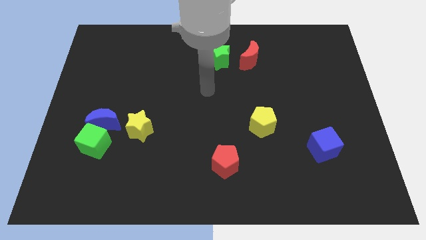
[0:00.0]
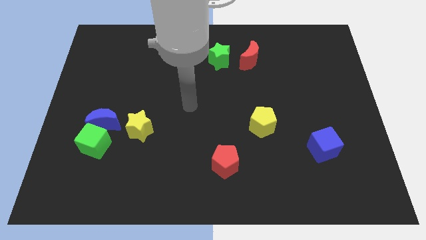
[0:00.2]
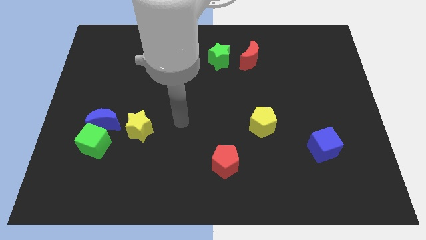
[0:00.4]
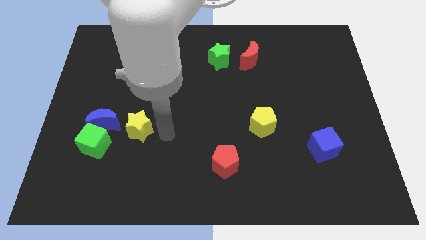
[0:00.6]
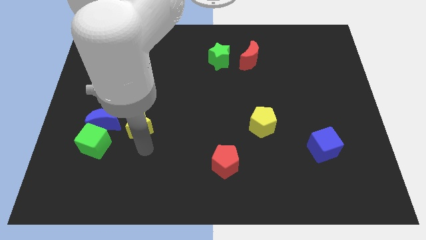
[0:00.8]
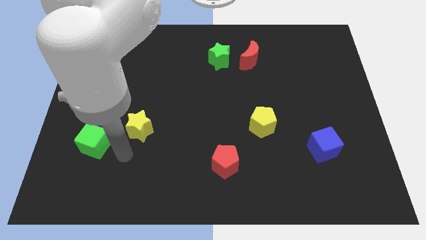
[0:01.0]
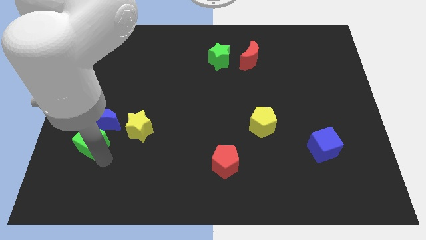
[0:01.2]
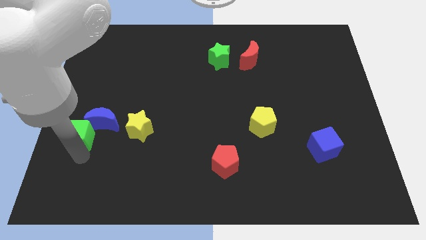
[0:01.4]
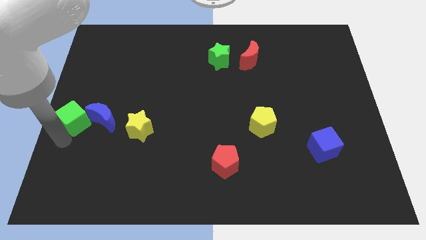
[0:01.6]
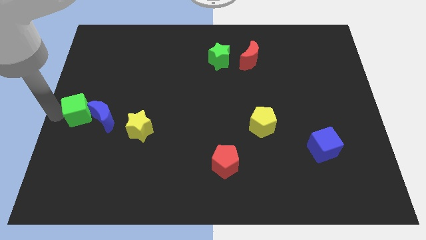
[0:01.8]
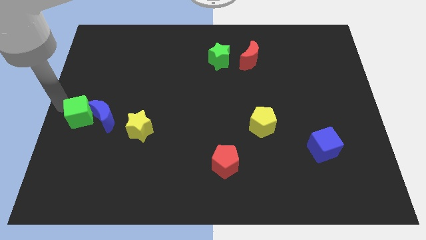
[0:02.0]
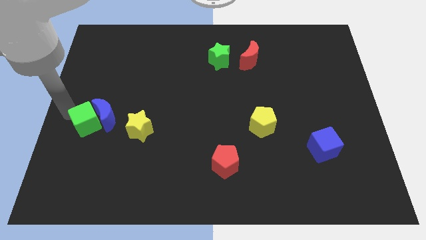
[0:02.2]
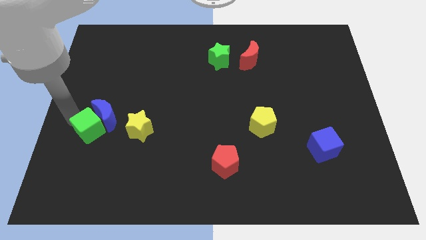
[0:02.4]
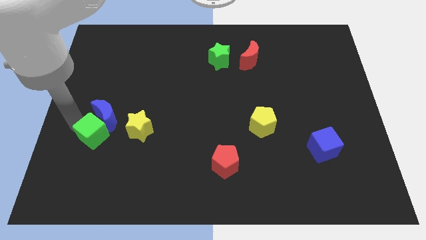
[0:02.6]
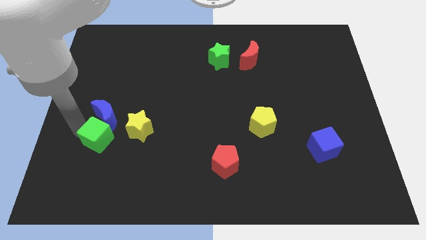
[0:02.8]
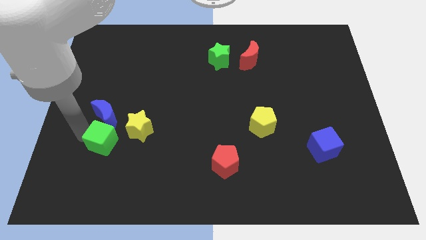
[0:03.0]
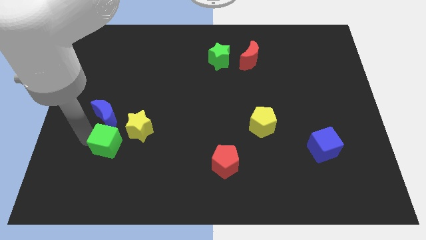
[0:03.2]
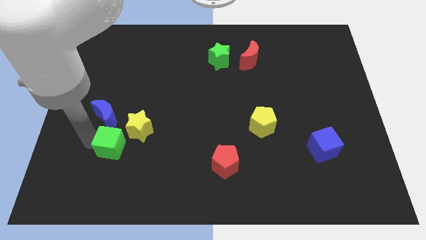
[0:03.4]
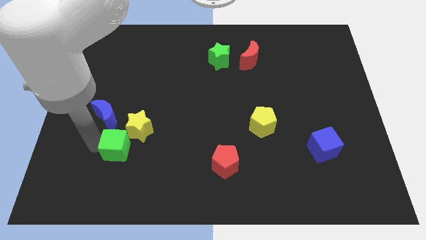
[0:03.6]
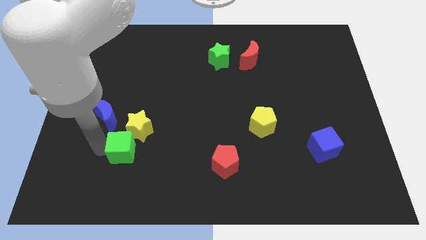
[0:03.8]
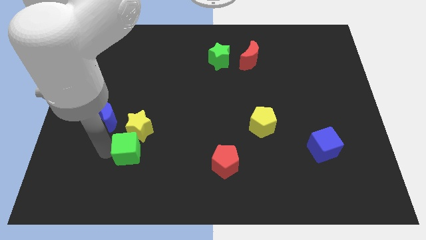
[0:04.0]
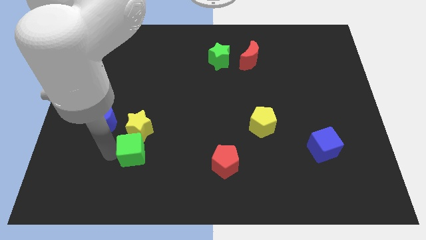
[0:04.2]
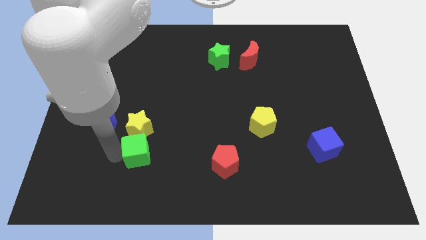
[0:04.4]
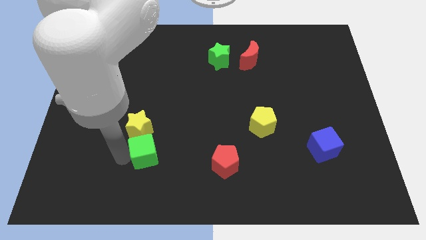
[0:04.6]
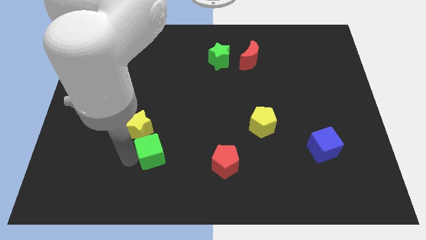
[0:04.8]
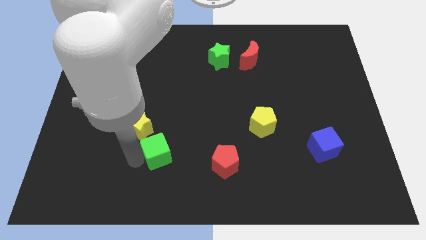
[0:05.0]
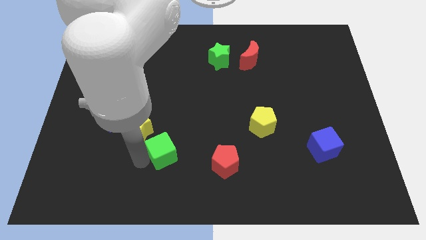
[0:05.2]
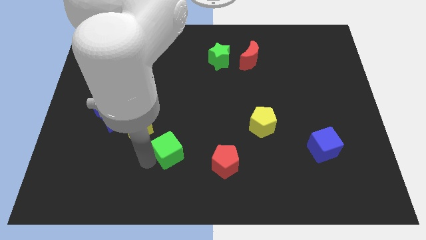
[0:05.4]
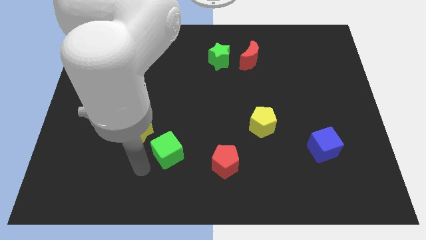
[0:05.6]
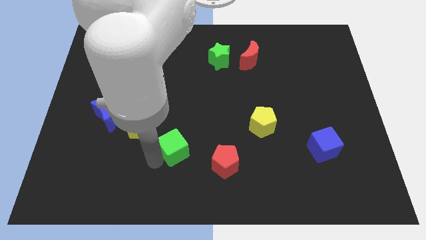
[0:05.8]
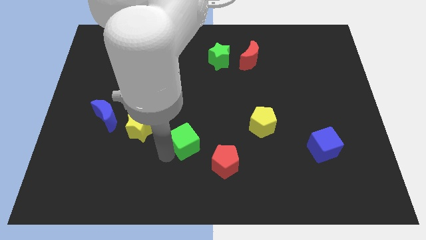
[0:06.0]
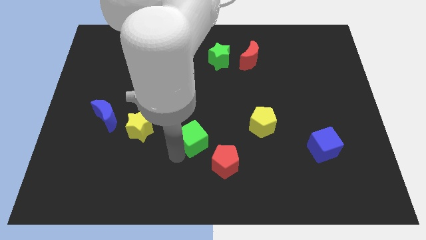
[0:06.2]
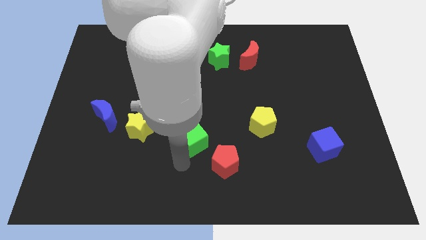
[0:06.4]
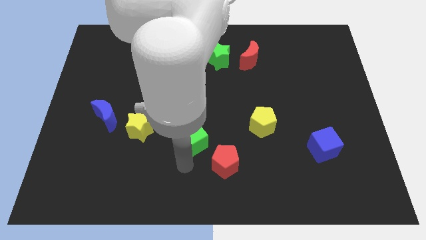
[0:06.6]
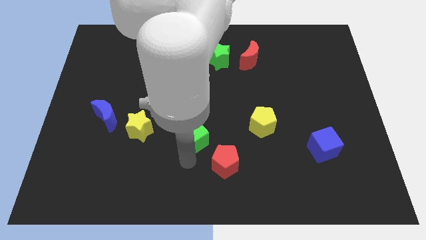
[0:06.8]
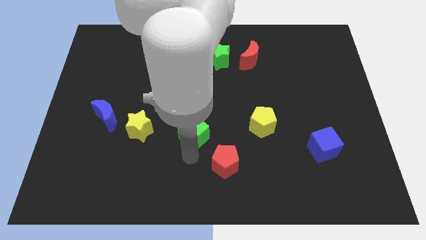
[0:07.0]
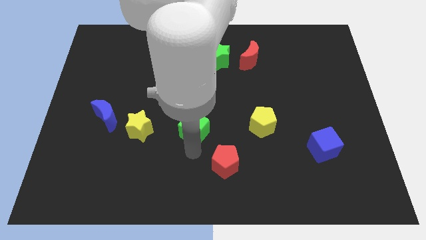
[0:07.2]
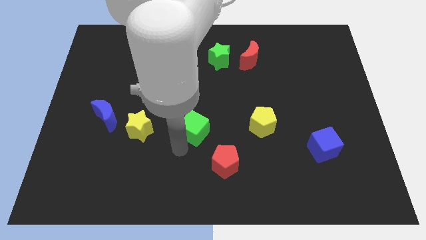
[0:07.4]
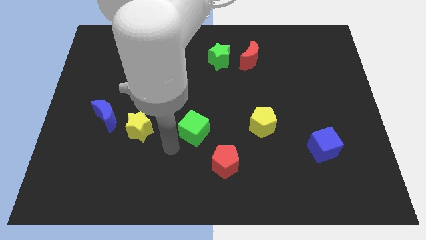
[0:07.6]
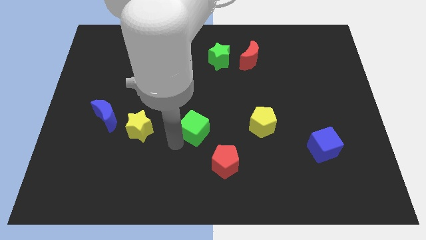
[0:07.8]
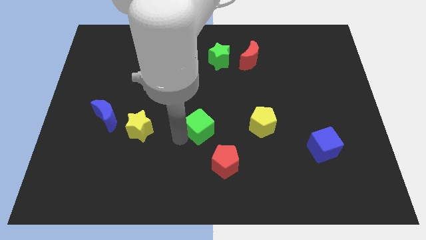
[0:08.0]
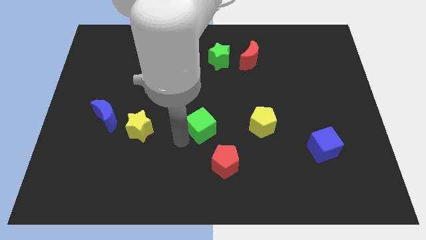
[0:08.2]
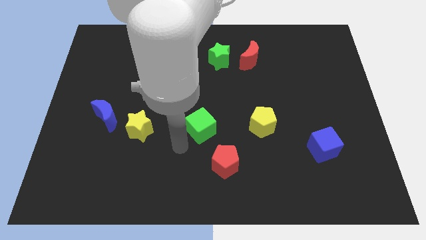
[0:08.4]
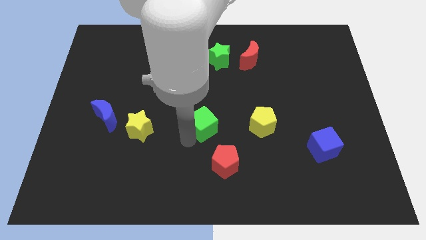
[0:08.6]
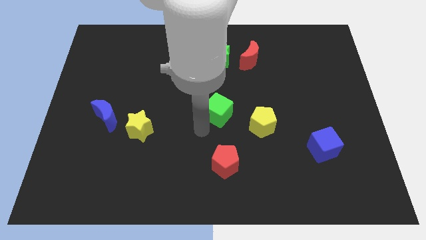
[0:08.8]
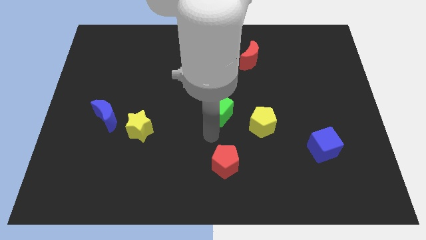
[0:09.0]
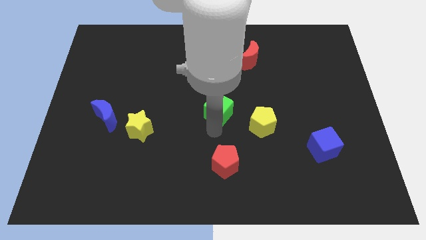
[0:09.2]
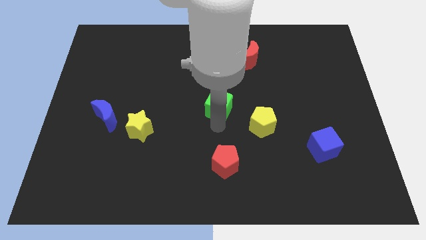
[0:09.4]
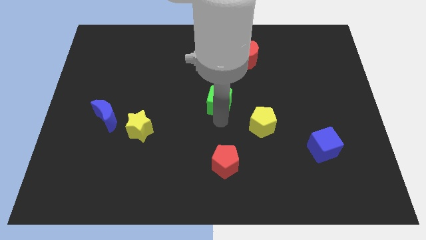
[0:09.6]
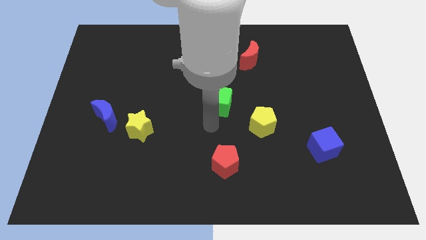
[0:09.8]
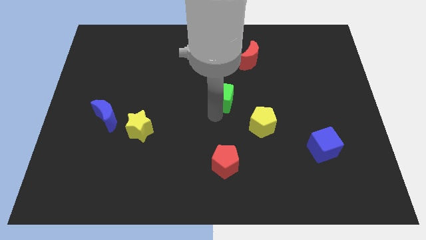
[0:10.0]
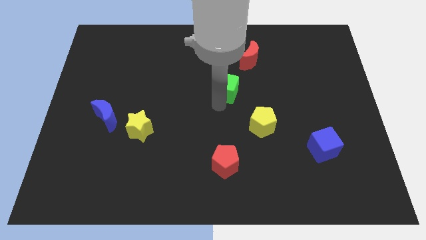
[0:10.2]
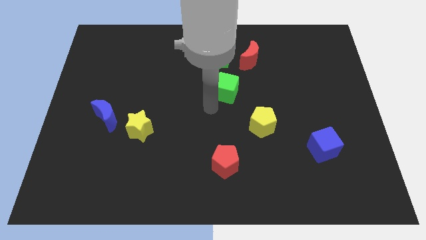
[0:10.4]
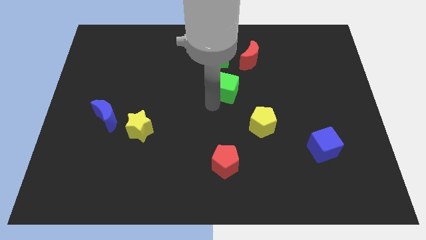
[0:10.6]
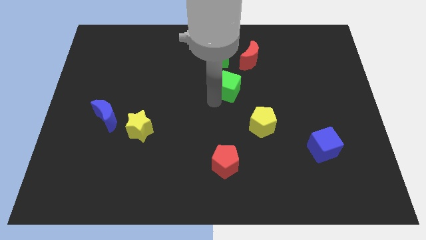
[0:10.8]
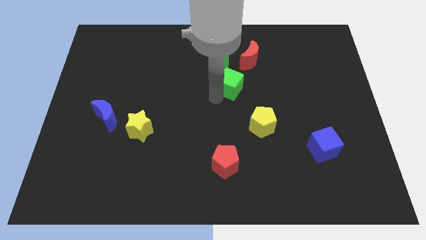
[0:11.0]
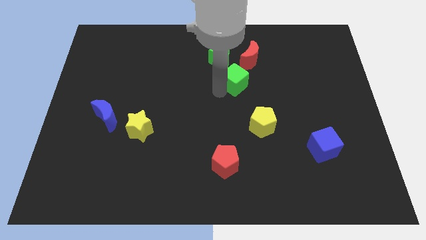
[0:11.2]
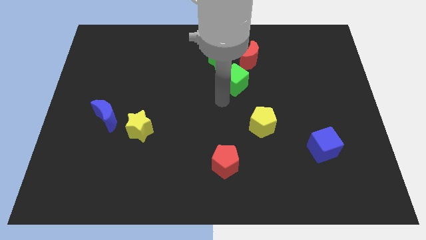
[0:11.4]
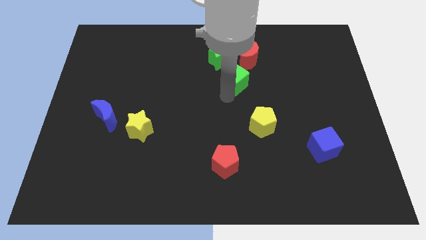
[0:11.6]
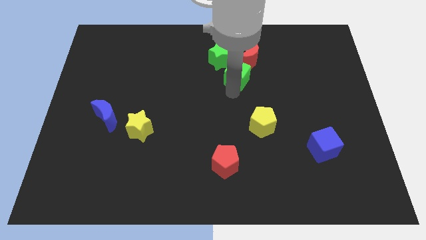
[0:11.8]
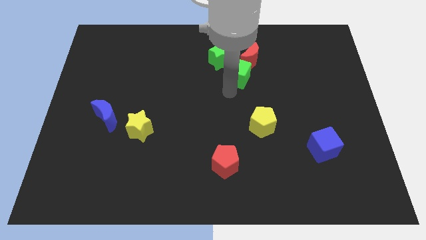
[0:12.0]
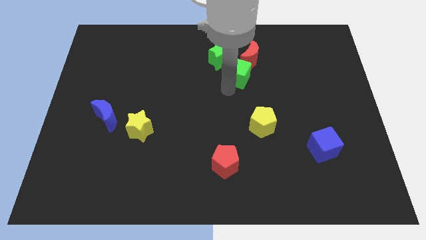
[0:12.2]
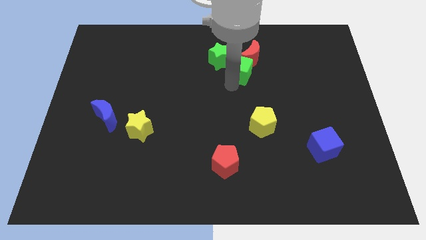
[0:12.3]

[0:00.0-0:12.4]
push the green cube close to the red moon

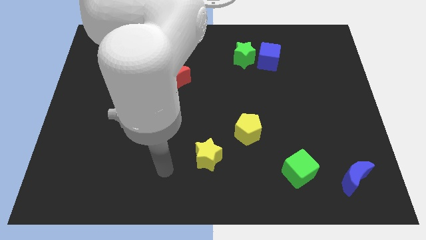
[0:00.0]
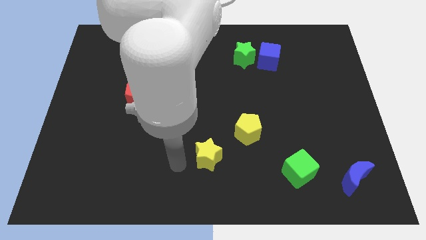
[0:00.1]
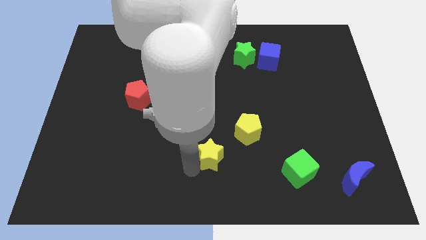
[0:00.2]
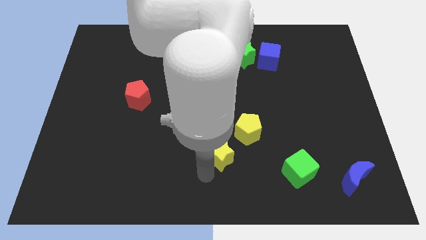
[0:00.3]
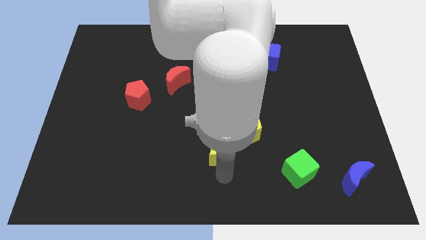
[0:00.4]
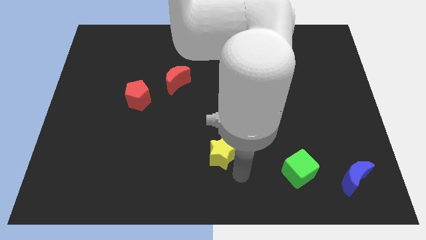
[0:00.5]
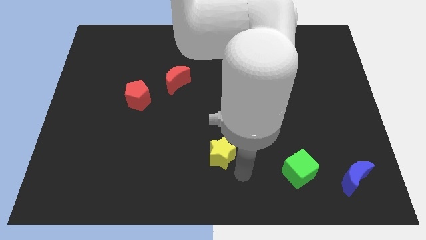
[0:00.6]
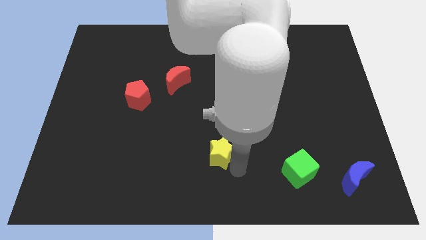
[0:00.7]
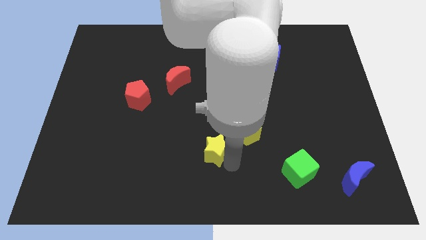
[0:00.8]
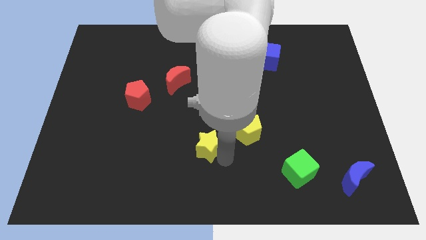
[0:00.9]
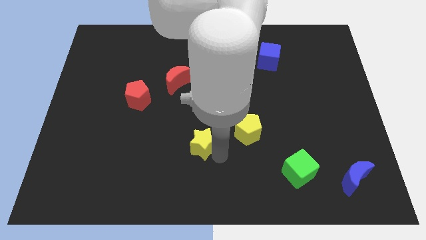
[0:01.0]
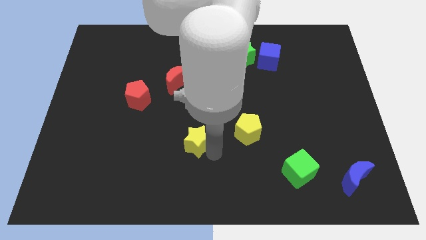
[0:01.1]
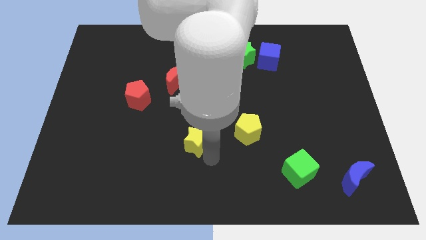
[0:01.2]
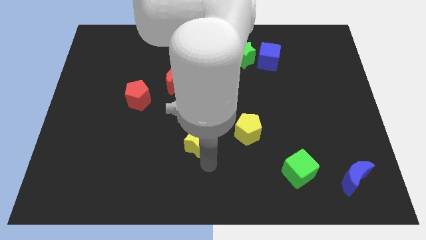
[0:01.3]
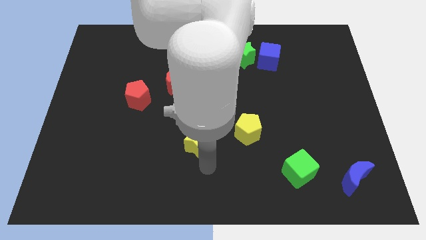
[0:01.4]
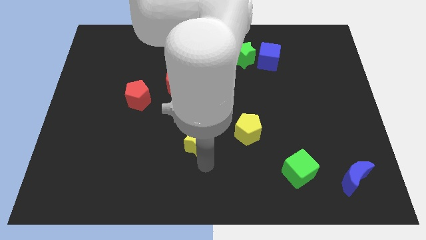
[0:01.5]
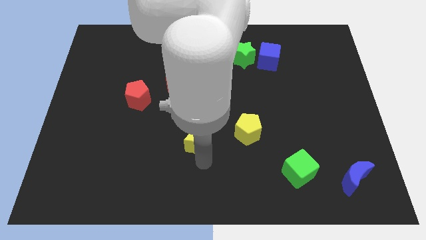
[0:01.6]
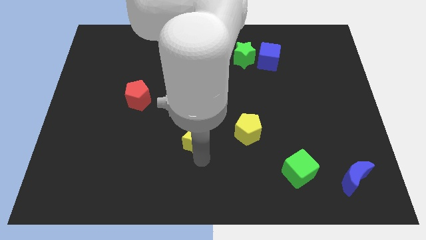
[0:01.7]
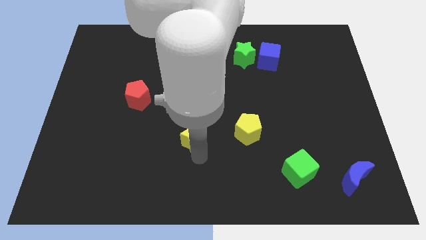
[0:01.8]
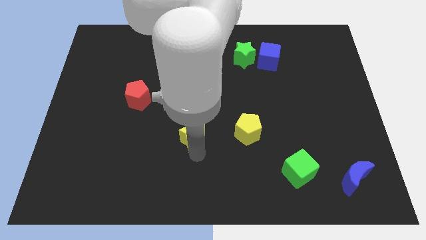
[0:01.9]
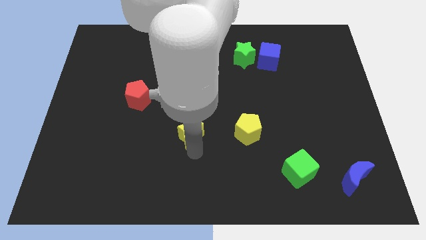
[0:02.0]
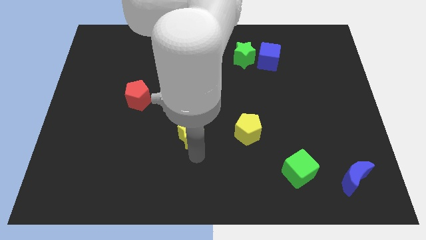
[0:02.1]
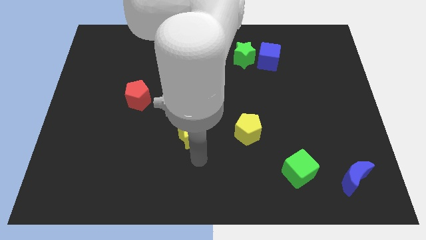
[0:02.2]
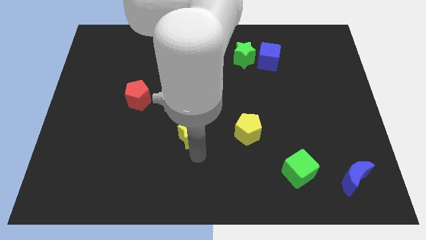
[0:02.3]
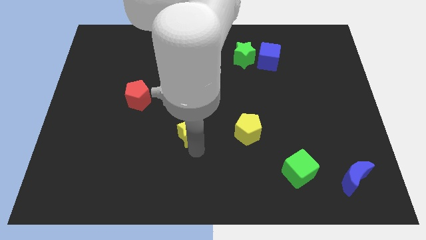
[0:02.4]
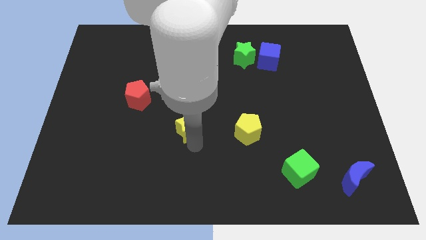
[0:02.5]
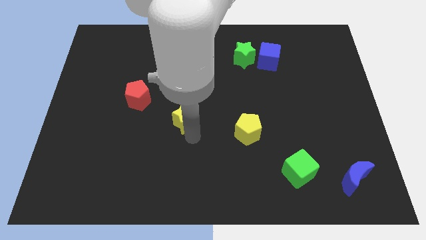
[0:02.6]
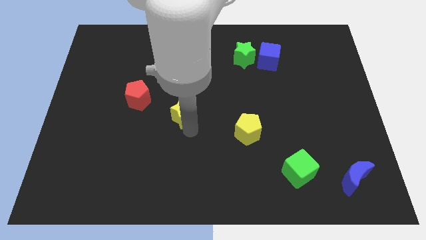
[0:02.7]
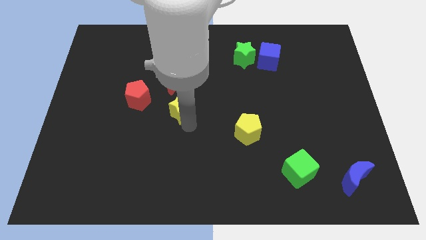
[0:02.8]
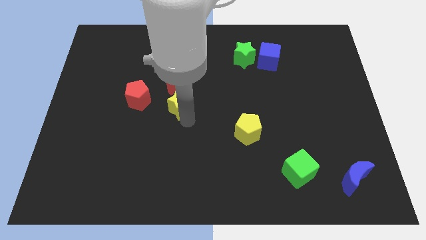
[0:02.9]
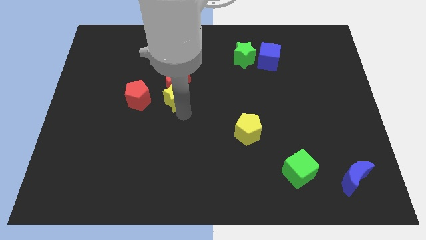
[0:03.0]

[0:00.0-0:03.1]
slide the yellow star close to the red moon
